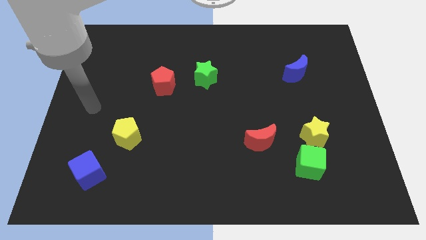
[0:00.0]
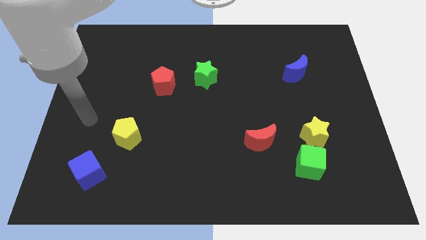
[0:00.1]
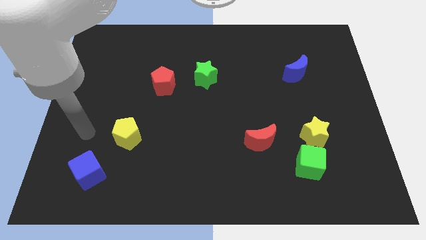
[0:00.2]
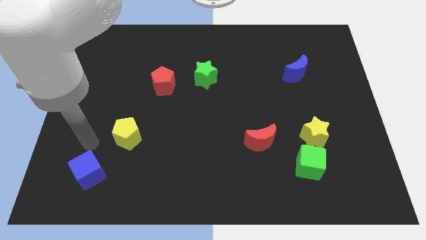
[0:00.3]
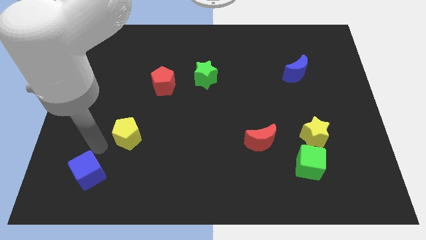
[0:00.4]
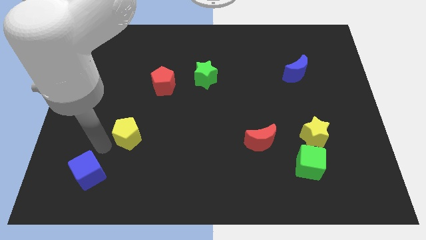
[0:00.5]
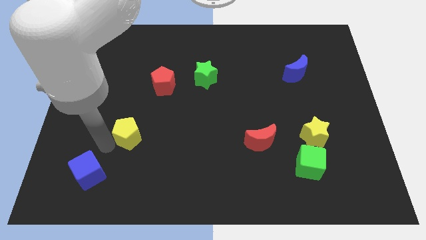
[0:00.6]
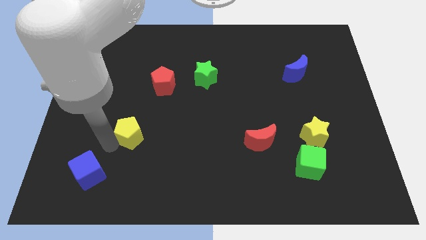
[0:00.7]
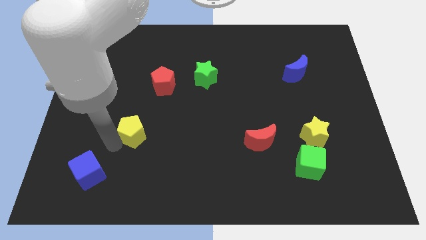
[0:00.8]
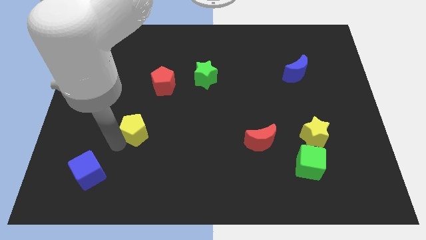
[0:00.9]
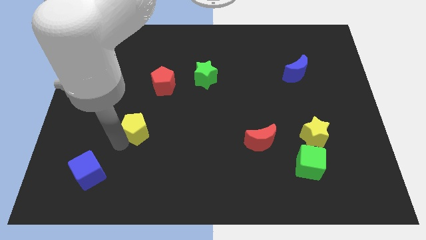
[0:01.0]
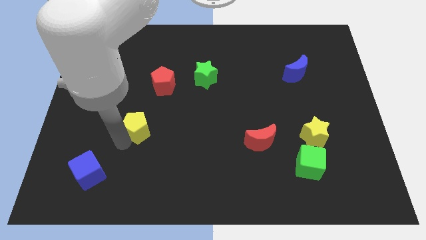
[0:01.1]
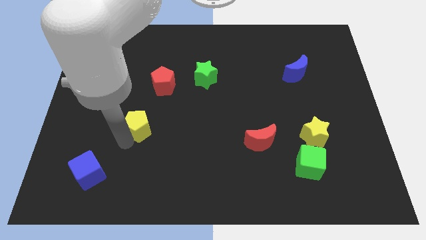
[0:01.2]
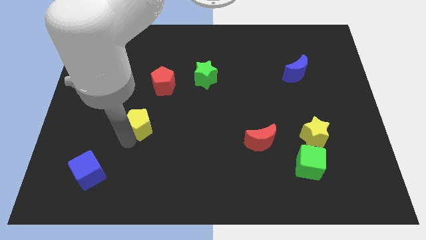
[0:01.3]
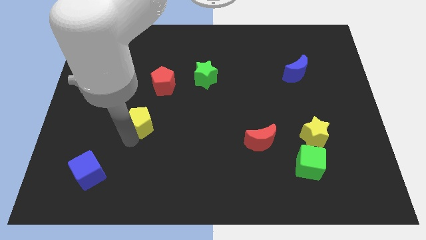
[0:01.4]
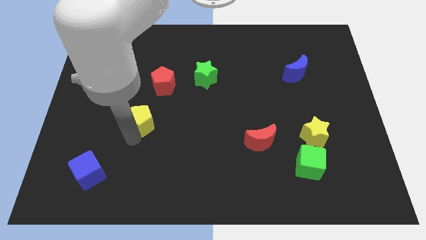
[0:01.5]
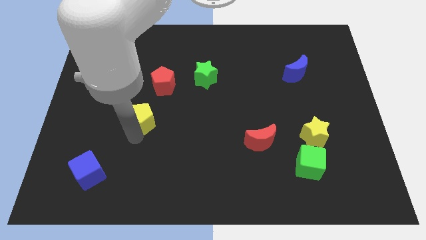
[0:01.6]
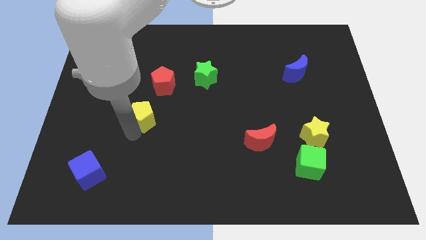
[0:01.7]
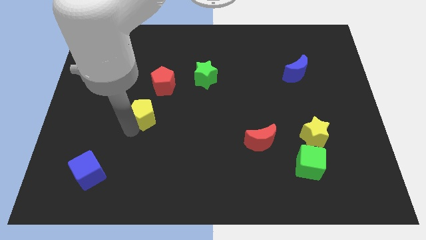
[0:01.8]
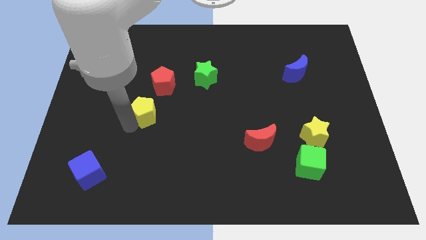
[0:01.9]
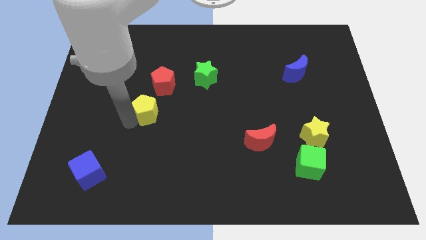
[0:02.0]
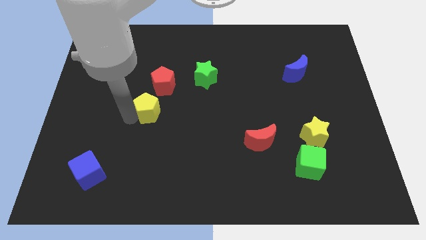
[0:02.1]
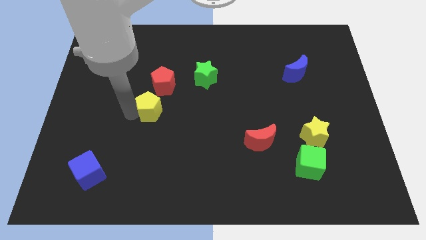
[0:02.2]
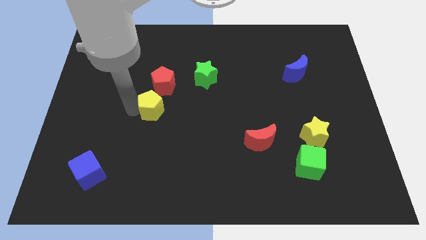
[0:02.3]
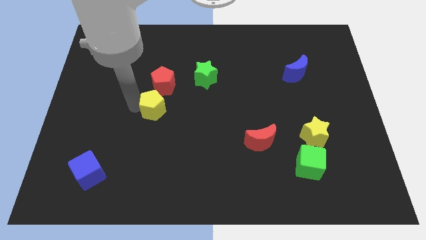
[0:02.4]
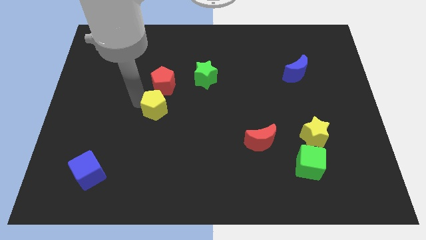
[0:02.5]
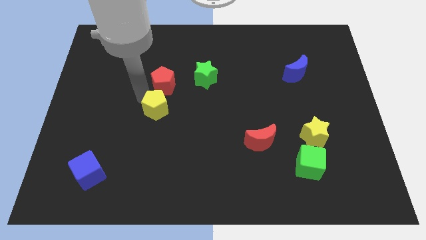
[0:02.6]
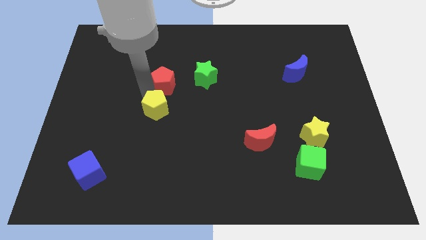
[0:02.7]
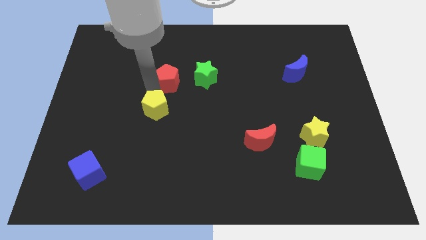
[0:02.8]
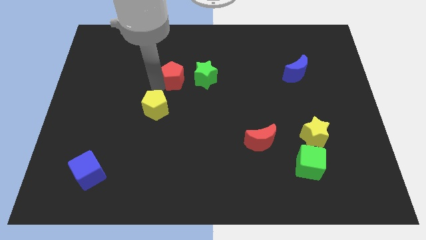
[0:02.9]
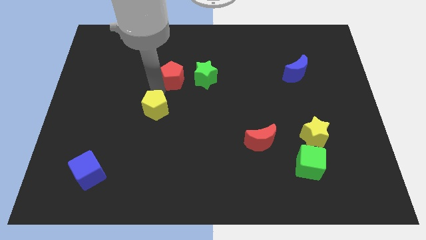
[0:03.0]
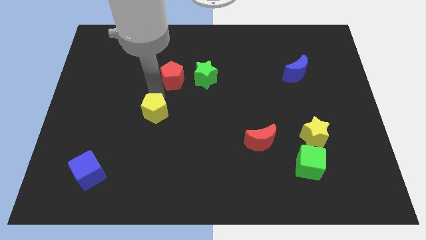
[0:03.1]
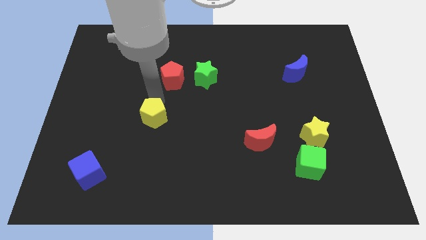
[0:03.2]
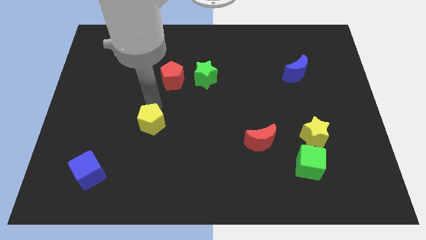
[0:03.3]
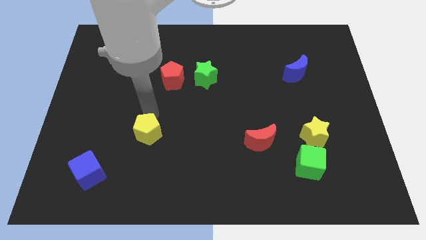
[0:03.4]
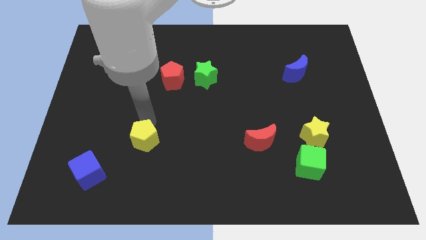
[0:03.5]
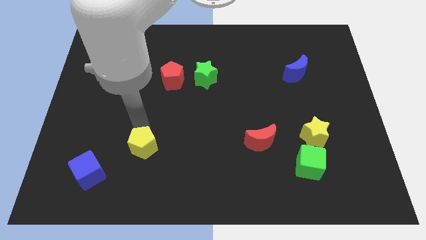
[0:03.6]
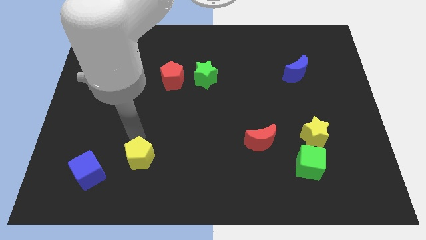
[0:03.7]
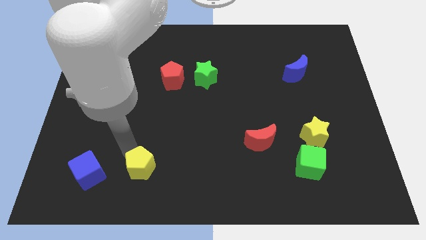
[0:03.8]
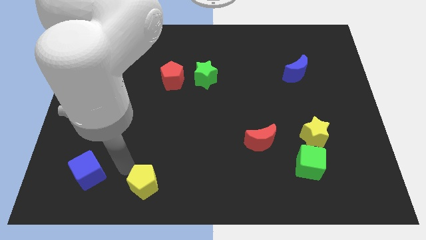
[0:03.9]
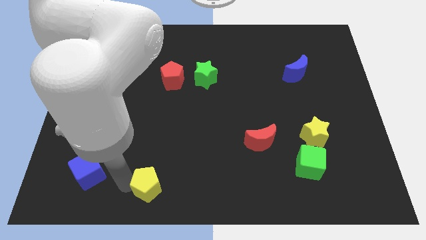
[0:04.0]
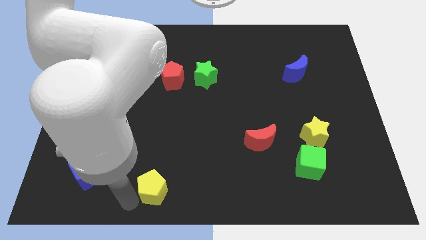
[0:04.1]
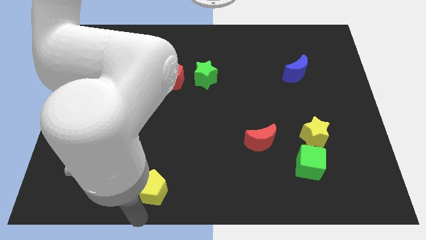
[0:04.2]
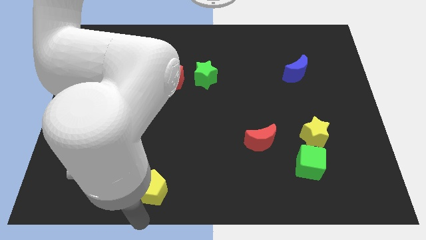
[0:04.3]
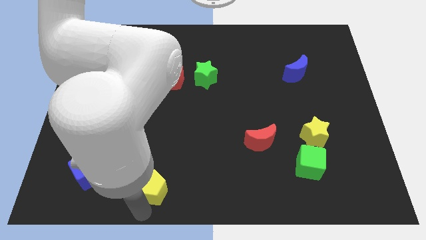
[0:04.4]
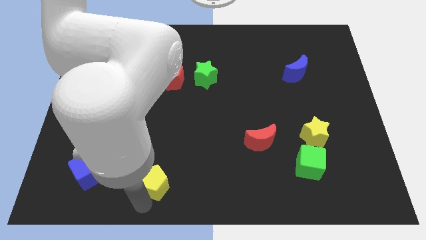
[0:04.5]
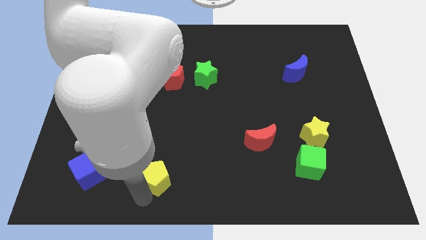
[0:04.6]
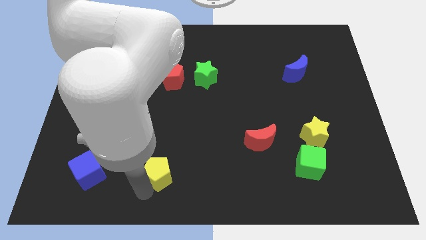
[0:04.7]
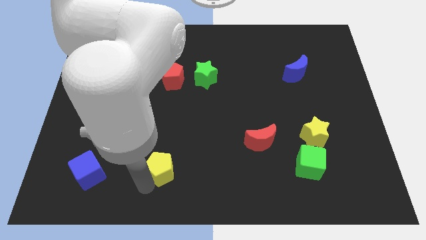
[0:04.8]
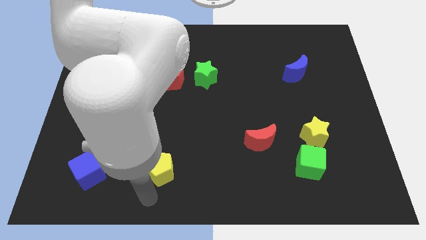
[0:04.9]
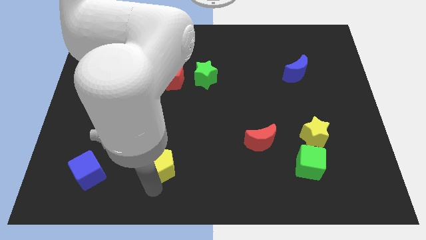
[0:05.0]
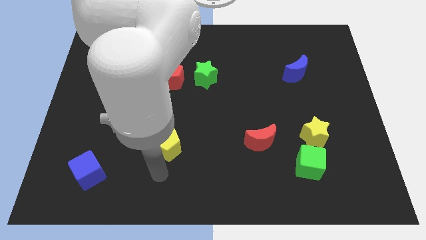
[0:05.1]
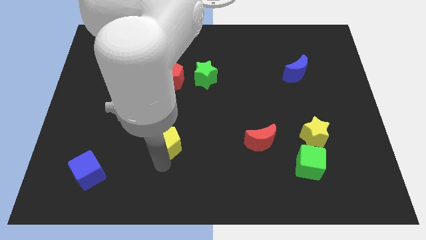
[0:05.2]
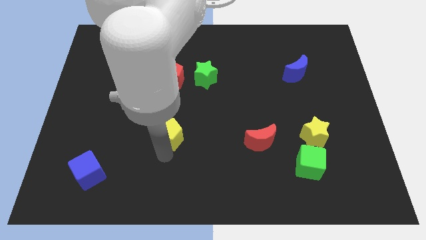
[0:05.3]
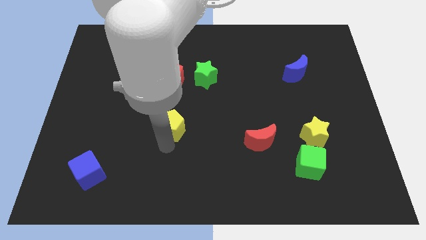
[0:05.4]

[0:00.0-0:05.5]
slide the yellow pentagon to the center

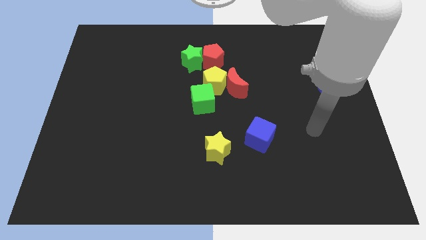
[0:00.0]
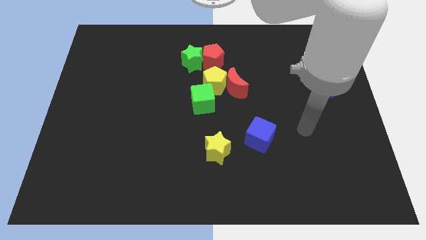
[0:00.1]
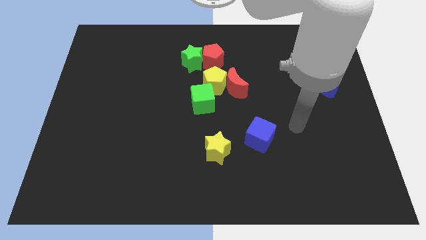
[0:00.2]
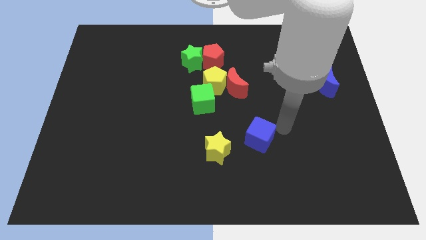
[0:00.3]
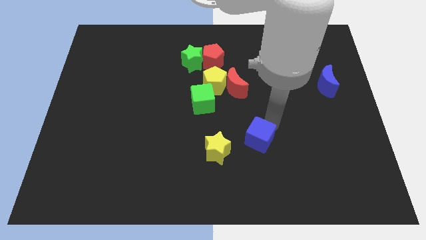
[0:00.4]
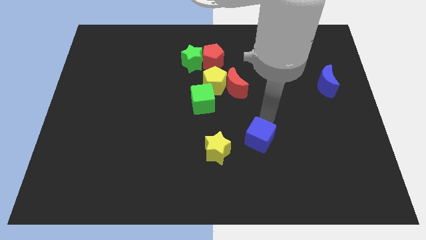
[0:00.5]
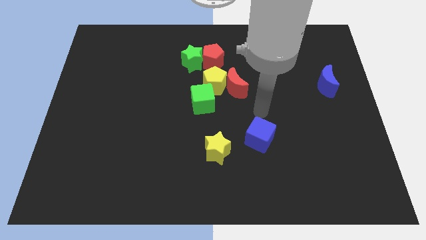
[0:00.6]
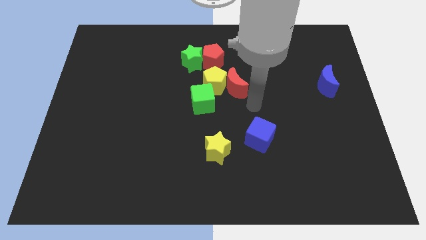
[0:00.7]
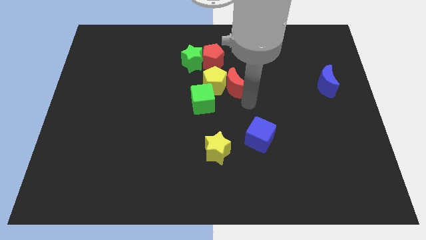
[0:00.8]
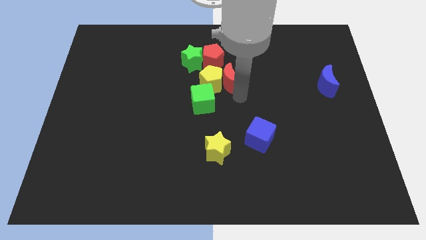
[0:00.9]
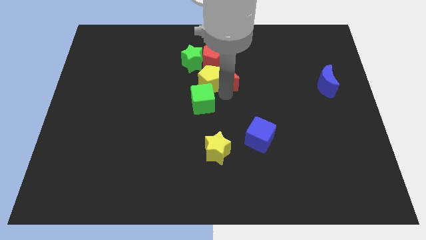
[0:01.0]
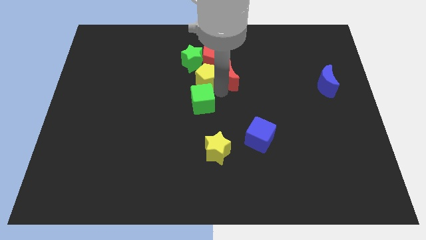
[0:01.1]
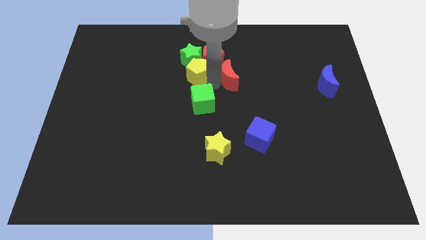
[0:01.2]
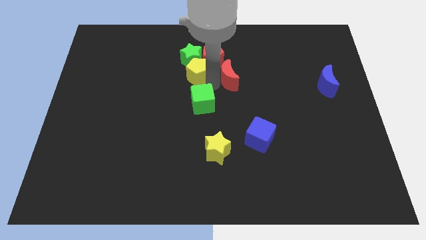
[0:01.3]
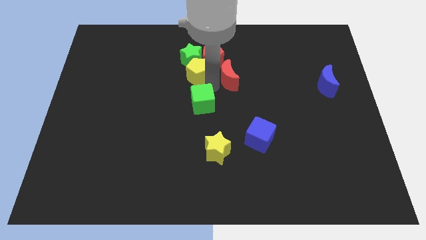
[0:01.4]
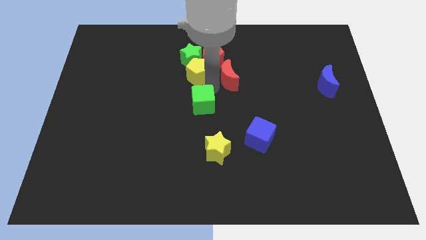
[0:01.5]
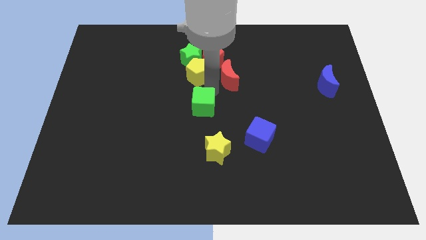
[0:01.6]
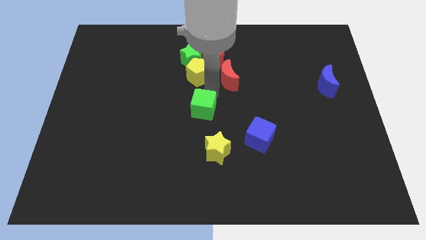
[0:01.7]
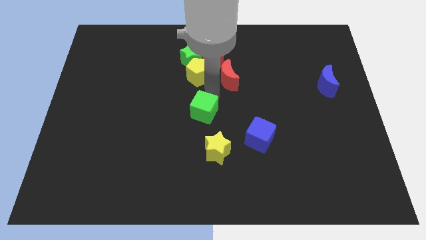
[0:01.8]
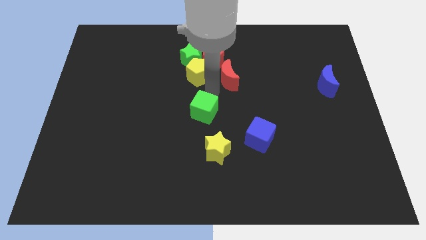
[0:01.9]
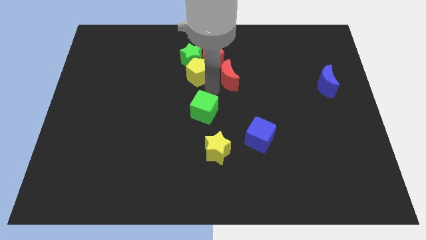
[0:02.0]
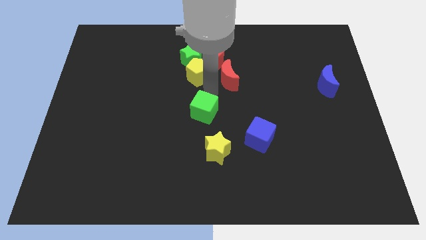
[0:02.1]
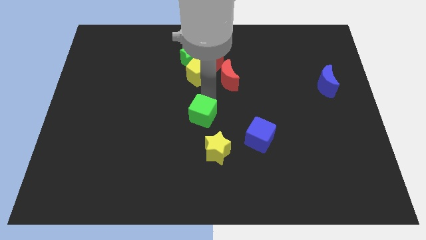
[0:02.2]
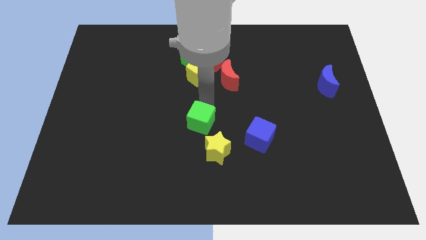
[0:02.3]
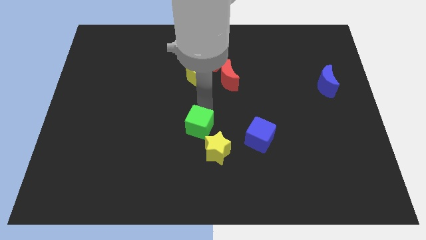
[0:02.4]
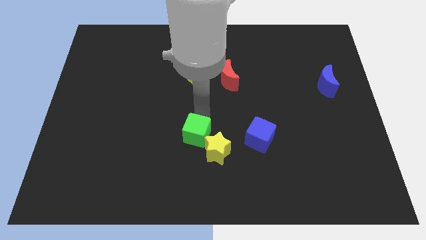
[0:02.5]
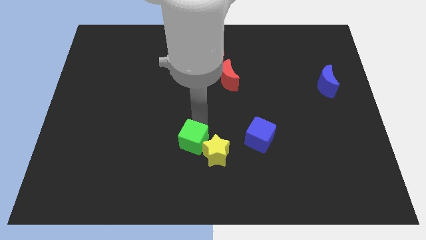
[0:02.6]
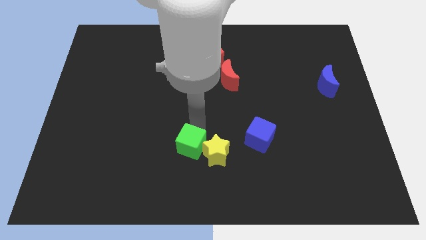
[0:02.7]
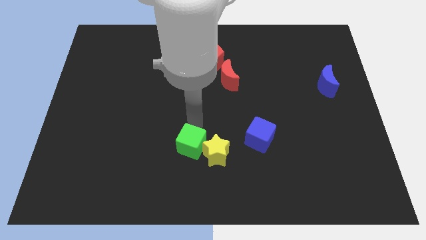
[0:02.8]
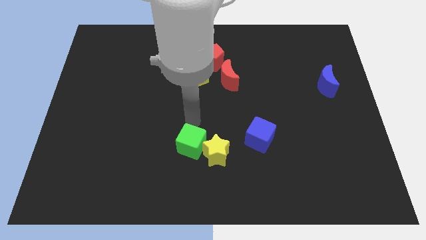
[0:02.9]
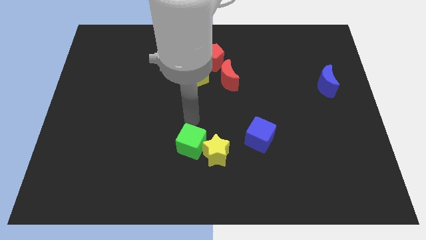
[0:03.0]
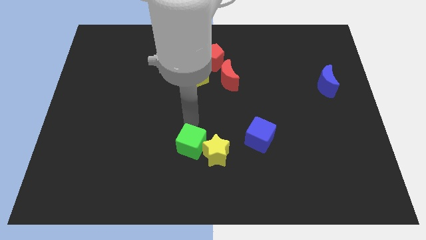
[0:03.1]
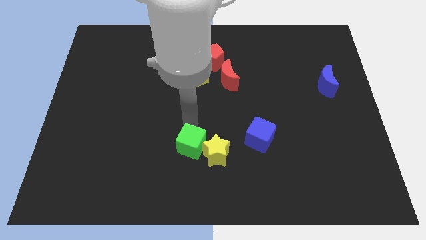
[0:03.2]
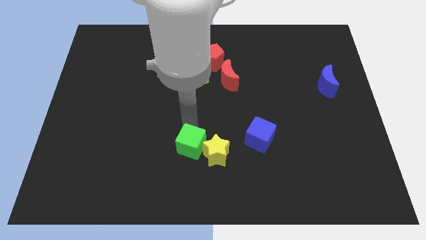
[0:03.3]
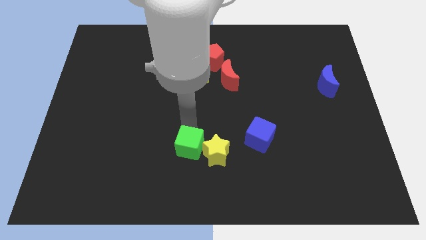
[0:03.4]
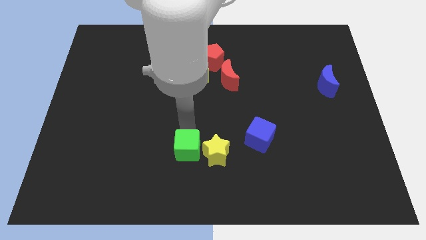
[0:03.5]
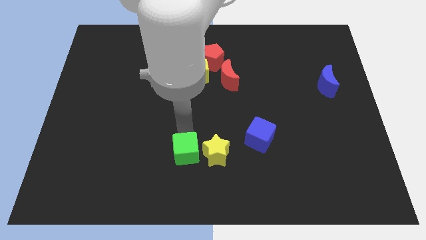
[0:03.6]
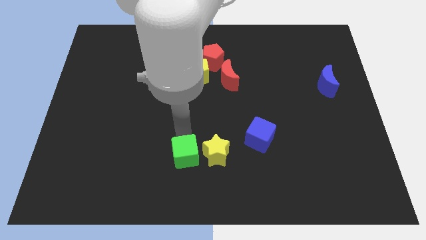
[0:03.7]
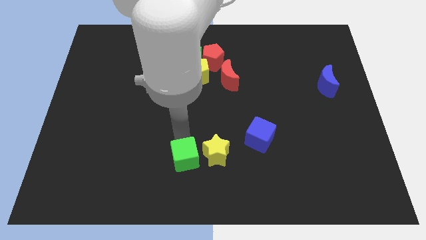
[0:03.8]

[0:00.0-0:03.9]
slide the green cube to the bottom side
